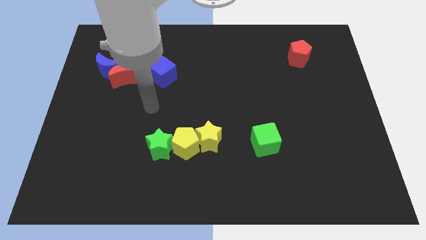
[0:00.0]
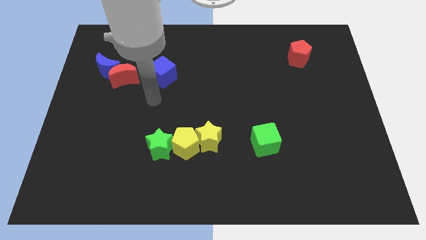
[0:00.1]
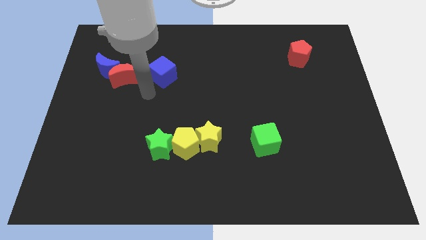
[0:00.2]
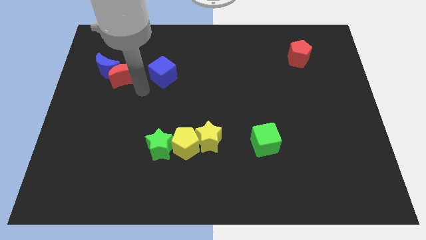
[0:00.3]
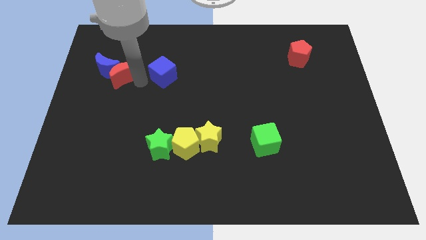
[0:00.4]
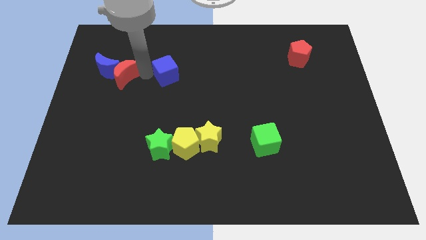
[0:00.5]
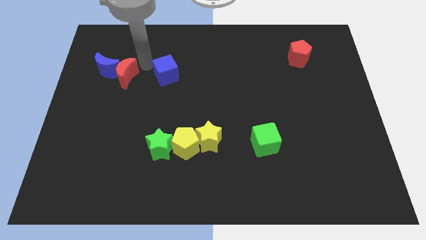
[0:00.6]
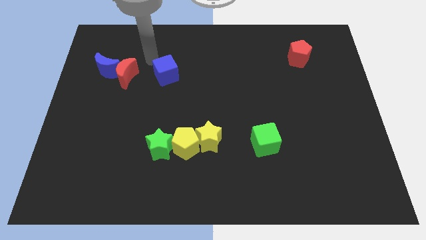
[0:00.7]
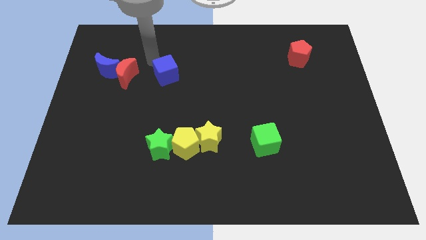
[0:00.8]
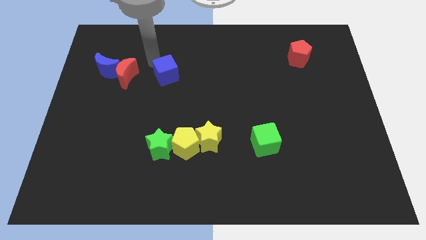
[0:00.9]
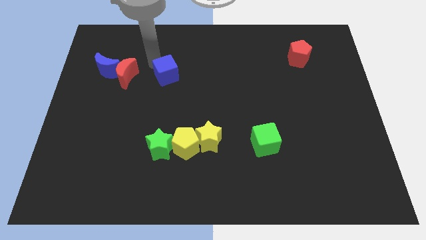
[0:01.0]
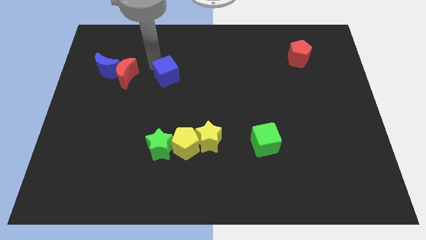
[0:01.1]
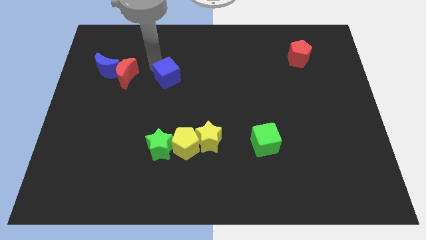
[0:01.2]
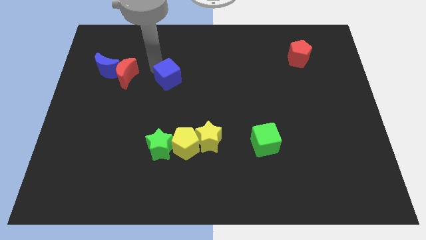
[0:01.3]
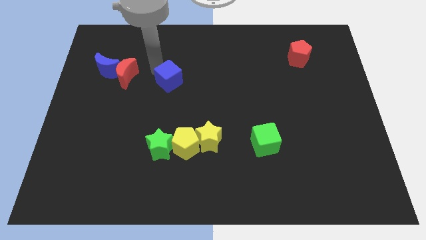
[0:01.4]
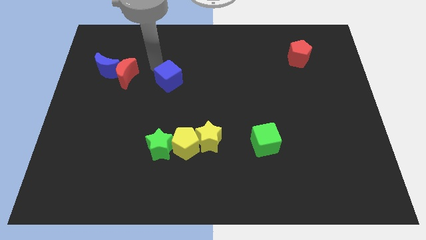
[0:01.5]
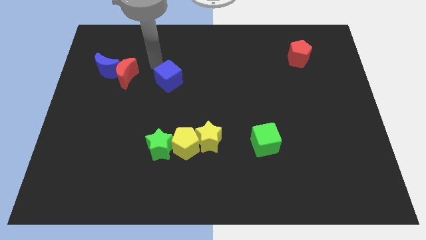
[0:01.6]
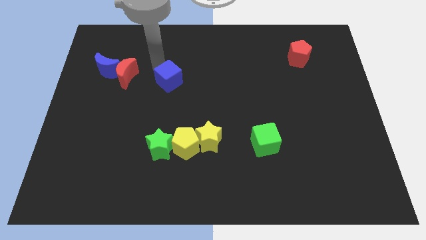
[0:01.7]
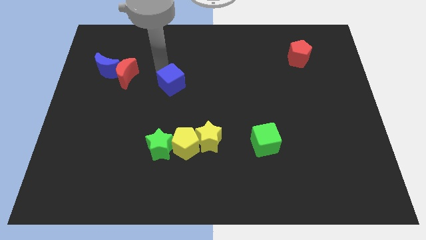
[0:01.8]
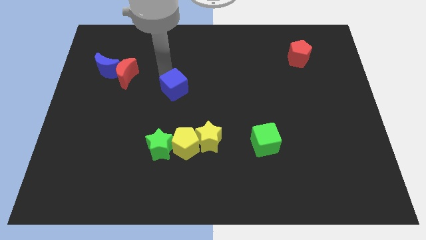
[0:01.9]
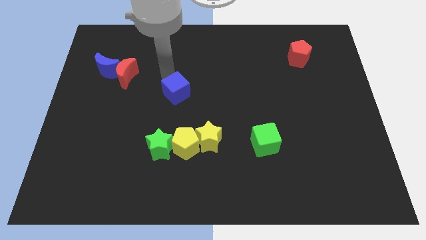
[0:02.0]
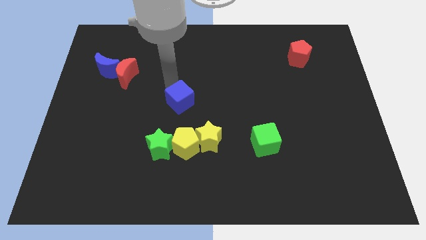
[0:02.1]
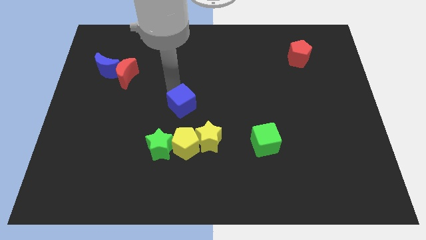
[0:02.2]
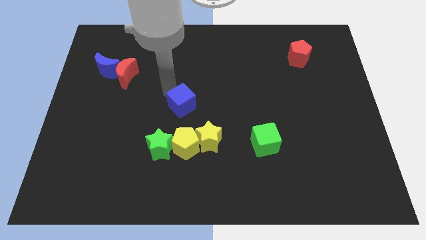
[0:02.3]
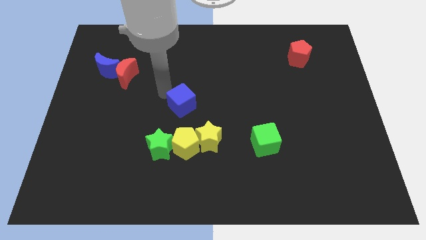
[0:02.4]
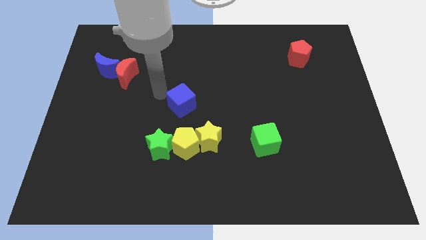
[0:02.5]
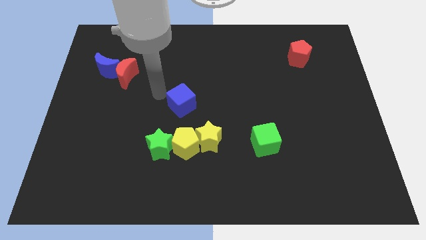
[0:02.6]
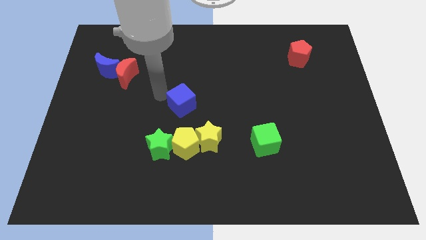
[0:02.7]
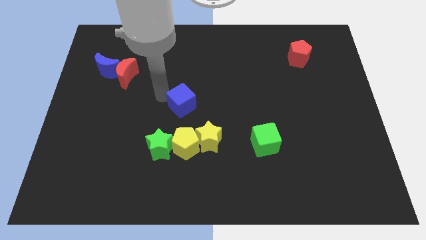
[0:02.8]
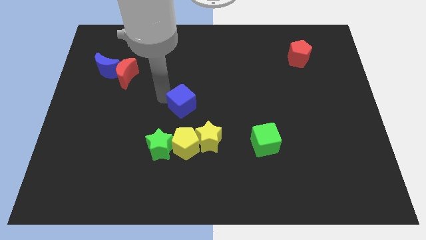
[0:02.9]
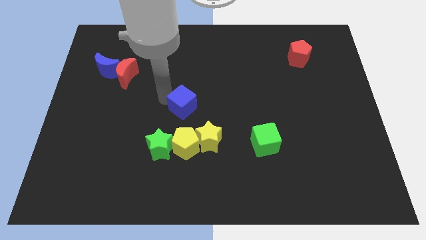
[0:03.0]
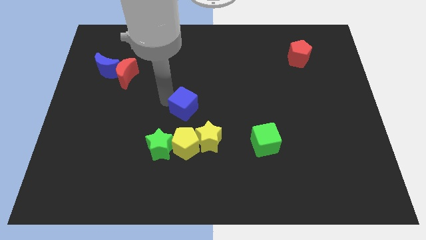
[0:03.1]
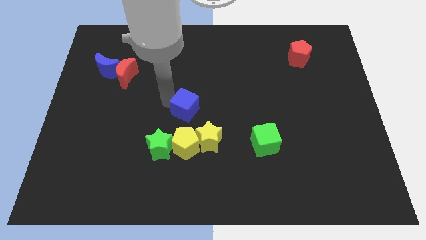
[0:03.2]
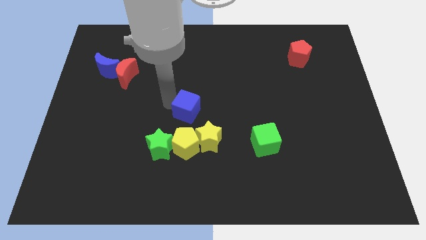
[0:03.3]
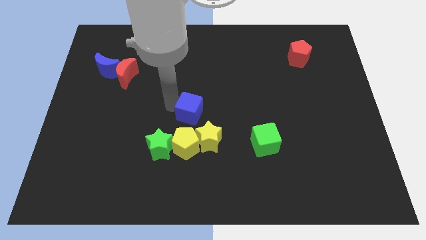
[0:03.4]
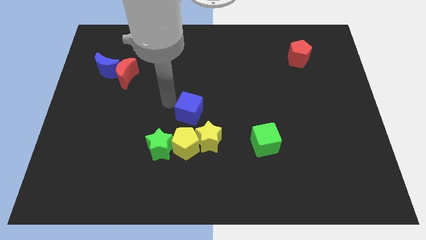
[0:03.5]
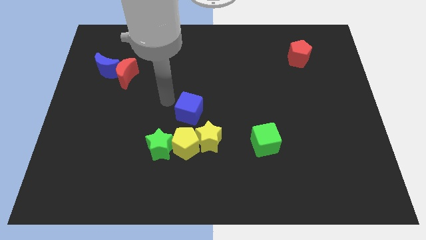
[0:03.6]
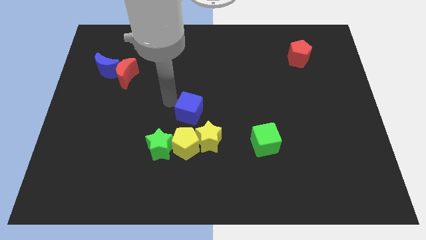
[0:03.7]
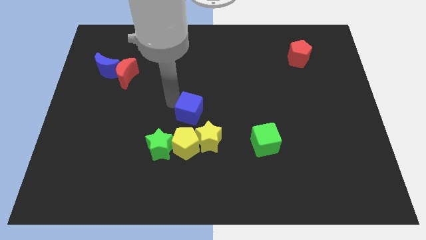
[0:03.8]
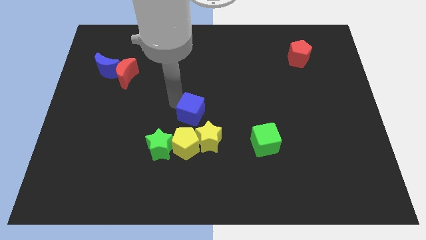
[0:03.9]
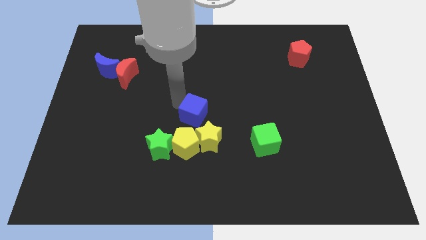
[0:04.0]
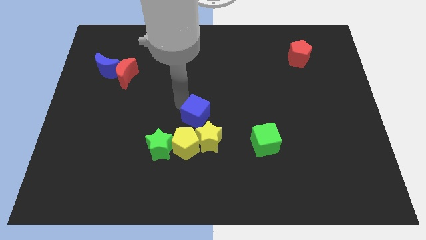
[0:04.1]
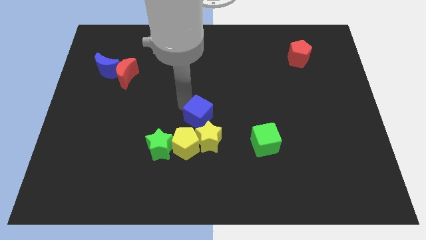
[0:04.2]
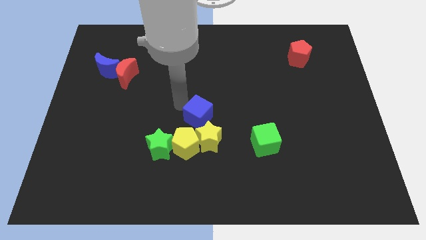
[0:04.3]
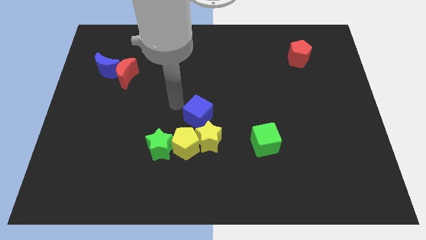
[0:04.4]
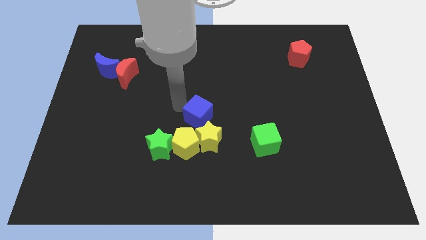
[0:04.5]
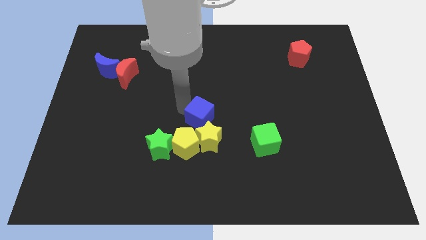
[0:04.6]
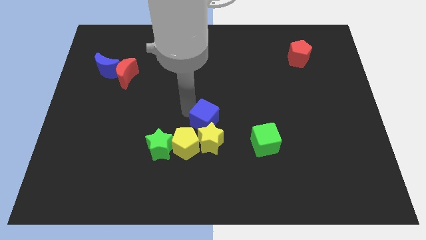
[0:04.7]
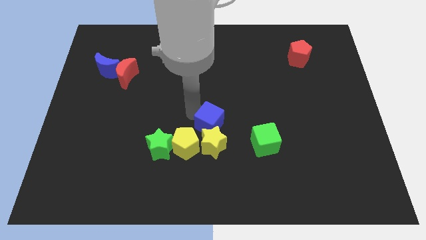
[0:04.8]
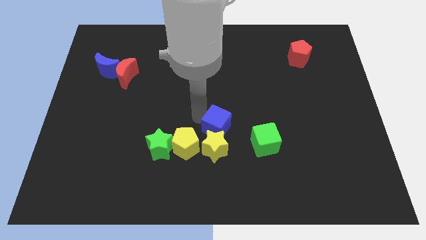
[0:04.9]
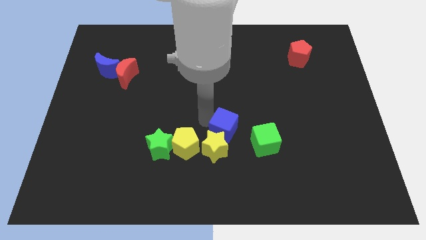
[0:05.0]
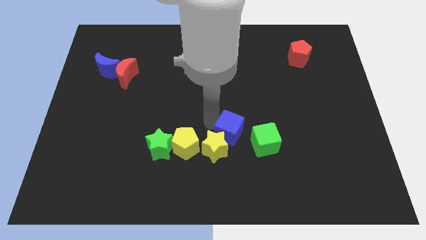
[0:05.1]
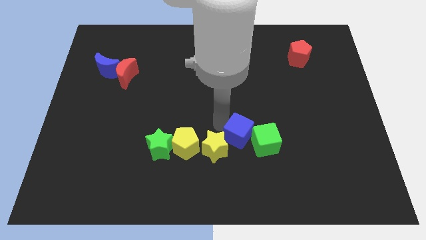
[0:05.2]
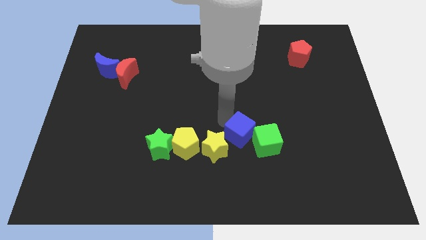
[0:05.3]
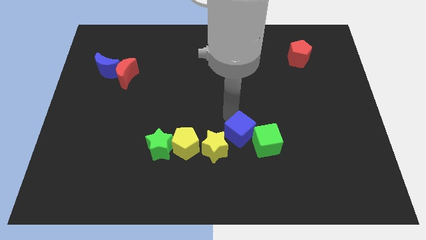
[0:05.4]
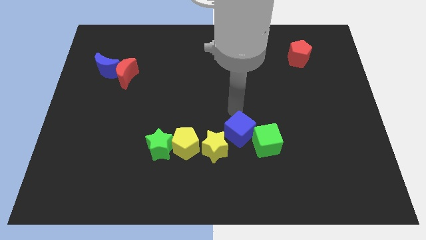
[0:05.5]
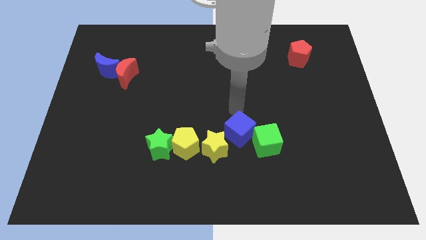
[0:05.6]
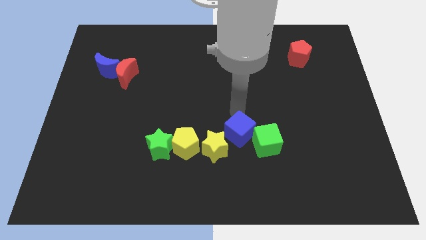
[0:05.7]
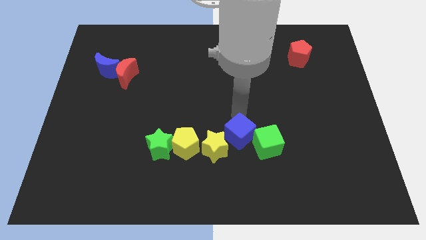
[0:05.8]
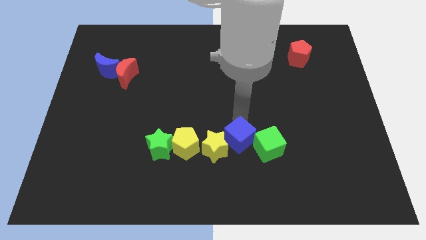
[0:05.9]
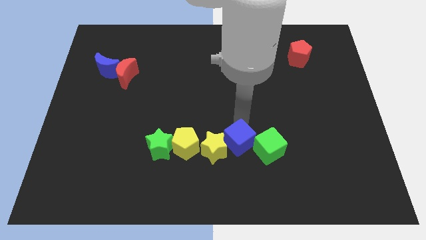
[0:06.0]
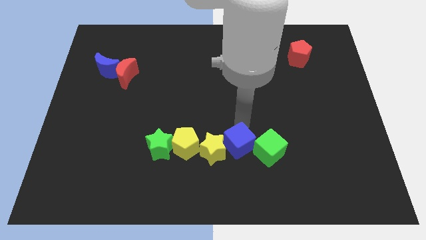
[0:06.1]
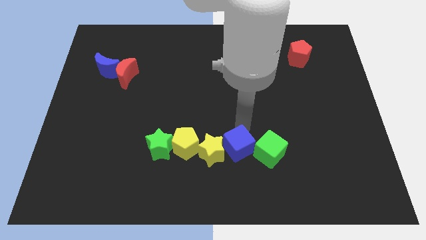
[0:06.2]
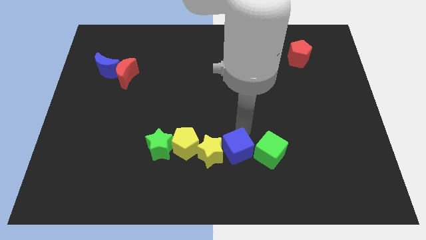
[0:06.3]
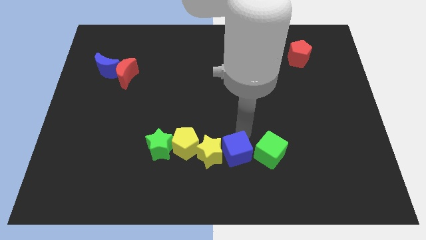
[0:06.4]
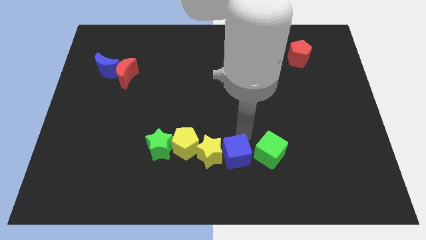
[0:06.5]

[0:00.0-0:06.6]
move the blue cube diagonally down and to the left of the green cube
